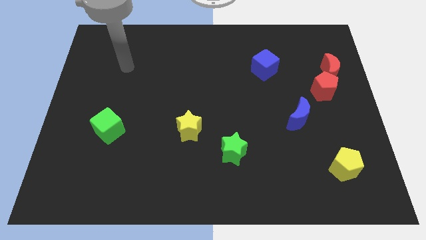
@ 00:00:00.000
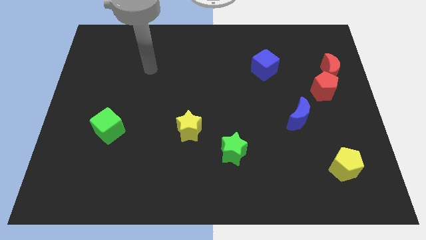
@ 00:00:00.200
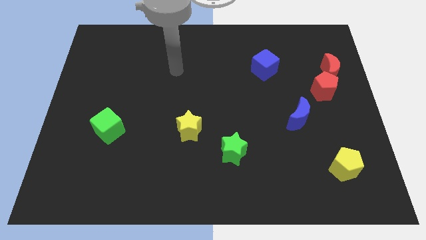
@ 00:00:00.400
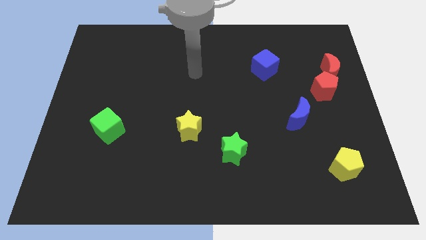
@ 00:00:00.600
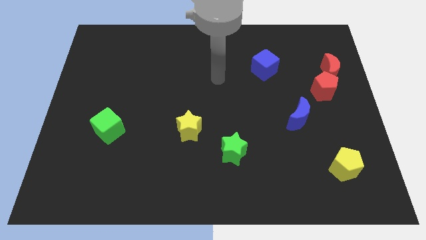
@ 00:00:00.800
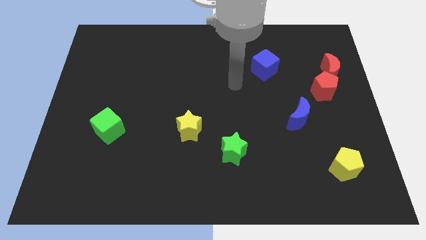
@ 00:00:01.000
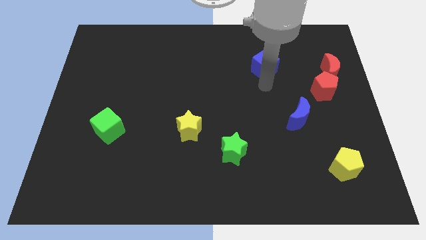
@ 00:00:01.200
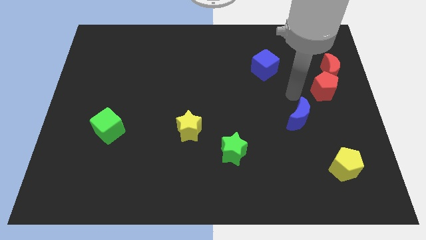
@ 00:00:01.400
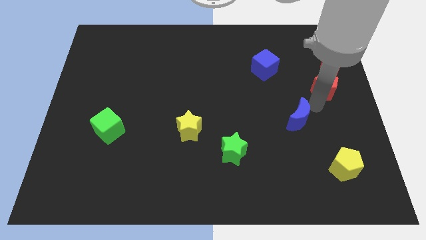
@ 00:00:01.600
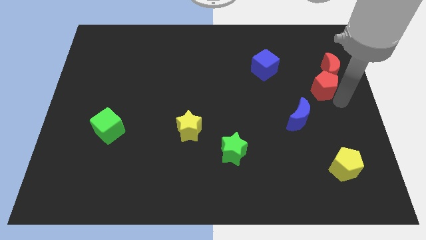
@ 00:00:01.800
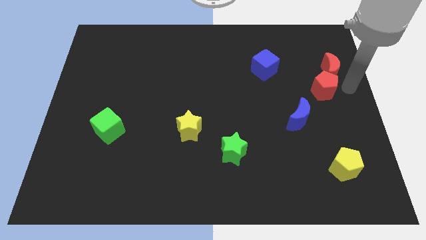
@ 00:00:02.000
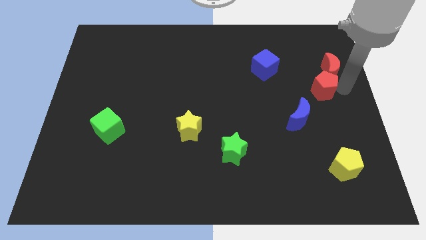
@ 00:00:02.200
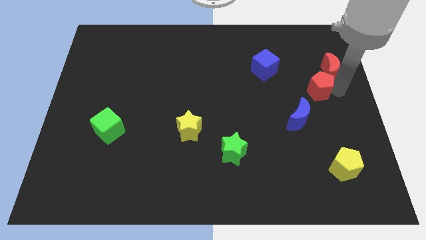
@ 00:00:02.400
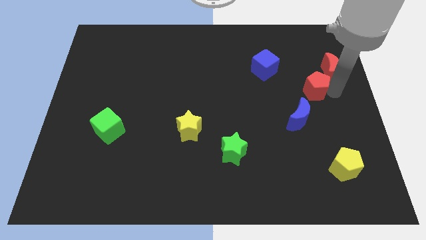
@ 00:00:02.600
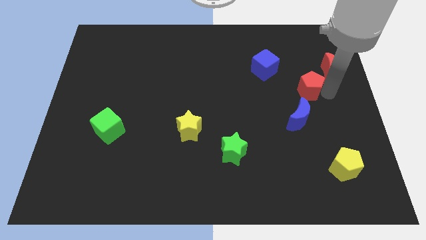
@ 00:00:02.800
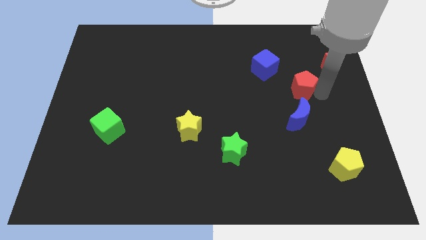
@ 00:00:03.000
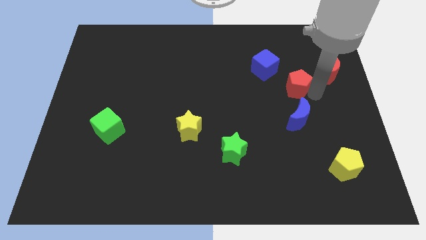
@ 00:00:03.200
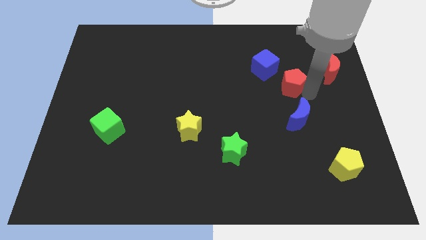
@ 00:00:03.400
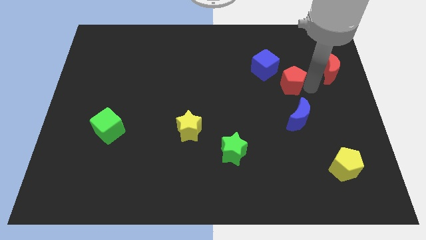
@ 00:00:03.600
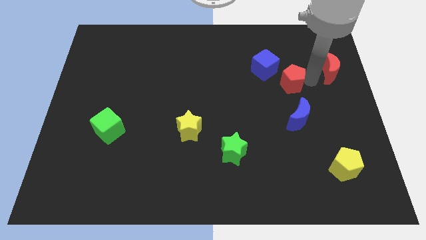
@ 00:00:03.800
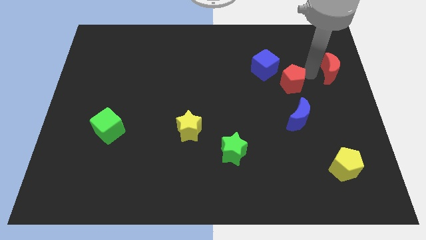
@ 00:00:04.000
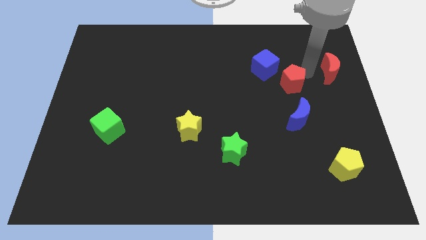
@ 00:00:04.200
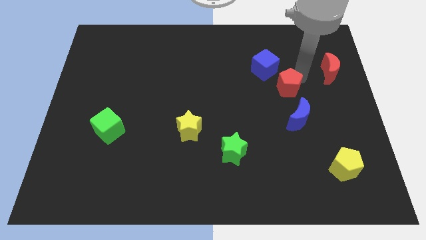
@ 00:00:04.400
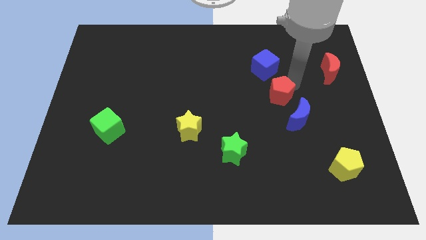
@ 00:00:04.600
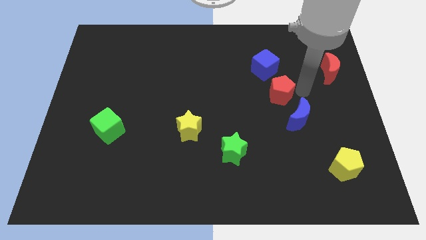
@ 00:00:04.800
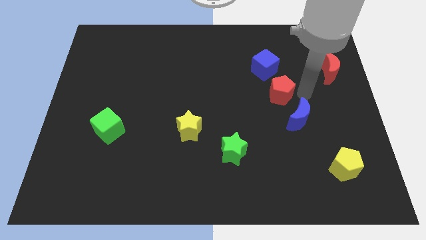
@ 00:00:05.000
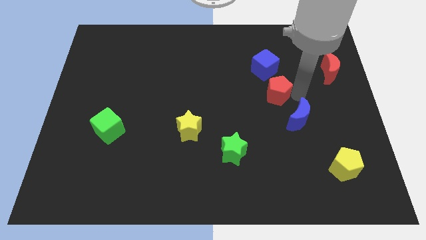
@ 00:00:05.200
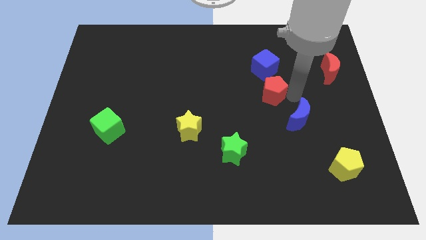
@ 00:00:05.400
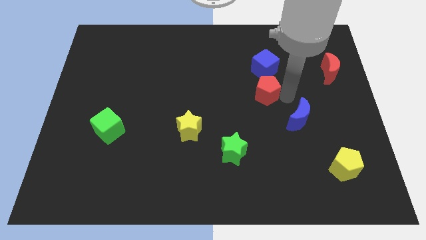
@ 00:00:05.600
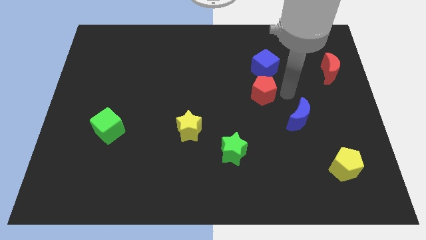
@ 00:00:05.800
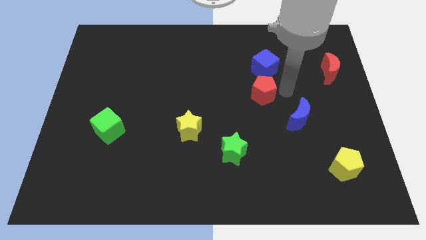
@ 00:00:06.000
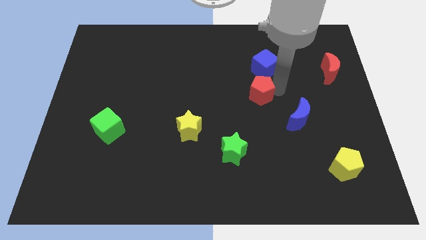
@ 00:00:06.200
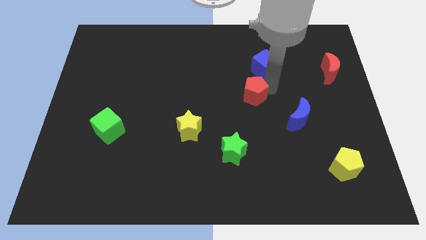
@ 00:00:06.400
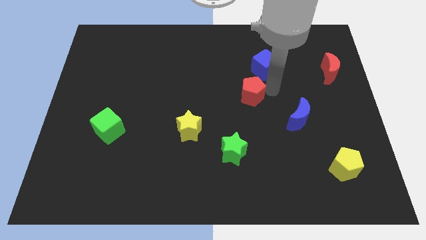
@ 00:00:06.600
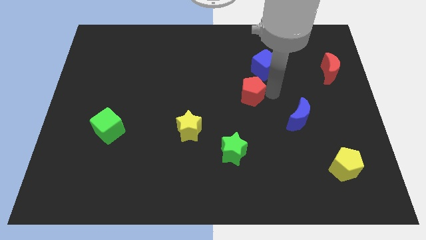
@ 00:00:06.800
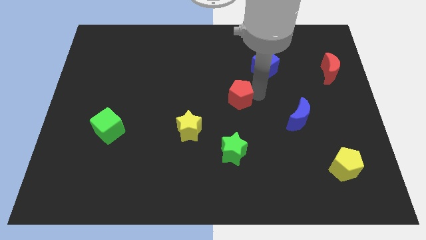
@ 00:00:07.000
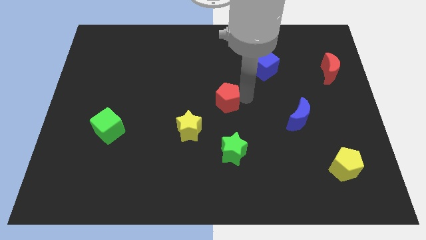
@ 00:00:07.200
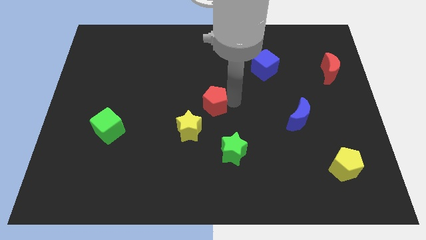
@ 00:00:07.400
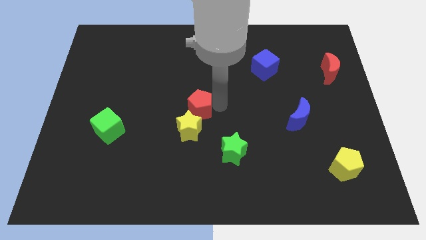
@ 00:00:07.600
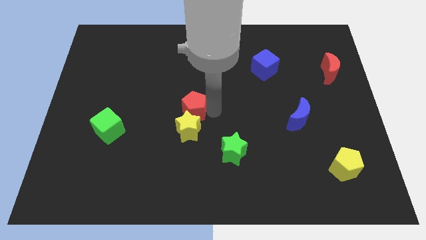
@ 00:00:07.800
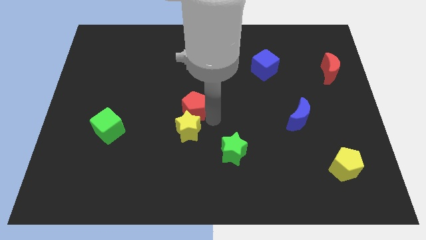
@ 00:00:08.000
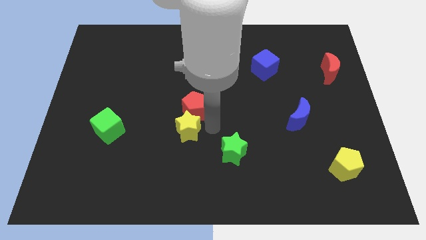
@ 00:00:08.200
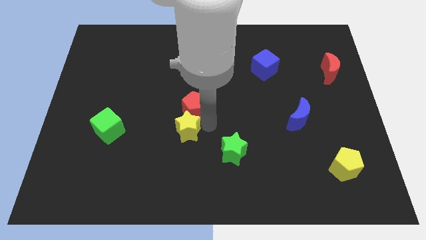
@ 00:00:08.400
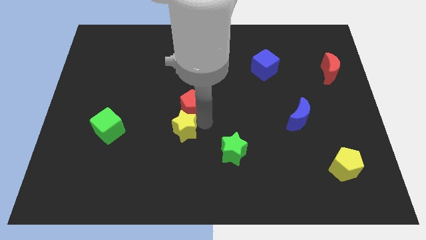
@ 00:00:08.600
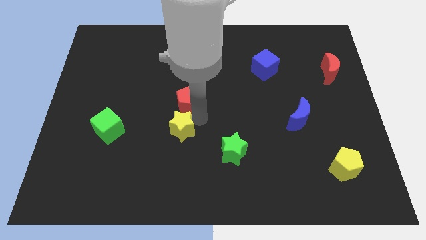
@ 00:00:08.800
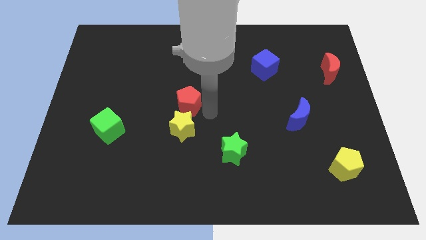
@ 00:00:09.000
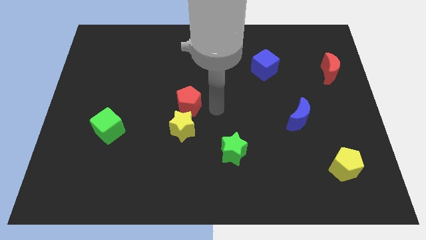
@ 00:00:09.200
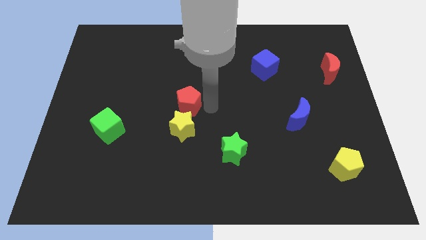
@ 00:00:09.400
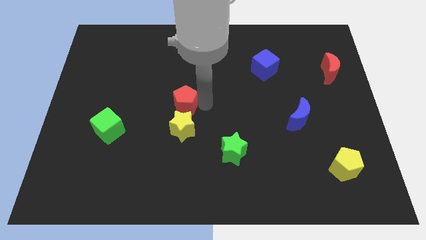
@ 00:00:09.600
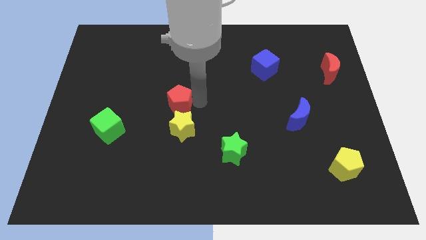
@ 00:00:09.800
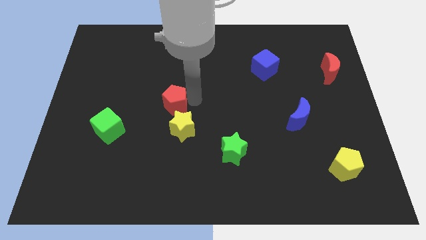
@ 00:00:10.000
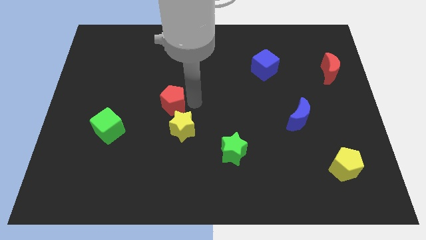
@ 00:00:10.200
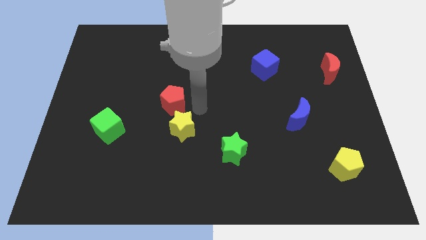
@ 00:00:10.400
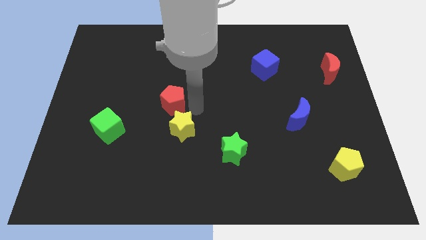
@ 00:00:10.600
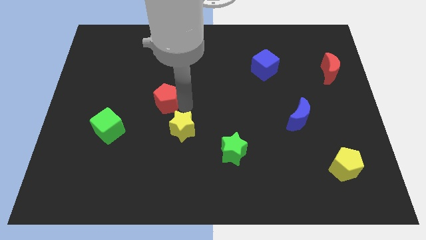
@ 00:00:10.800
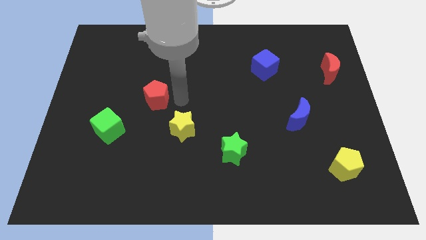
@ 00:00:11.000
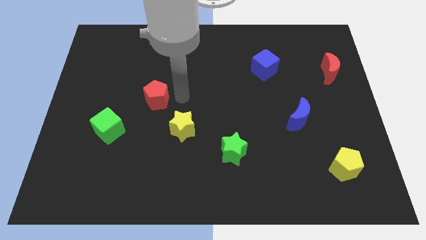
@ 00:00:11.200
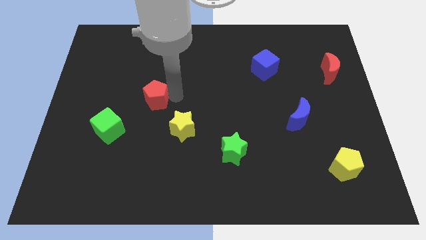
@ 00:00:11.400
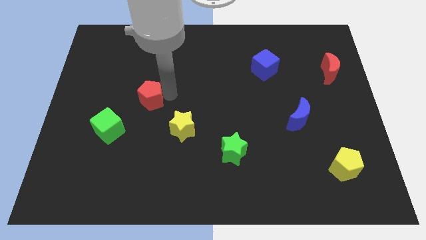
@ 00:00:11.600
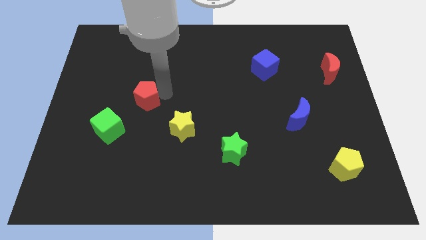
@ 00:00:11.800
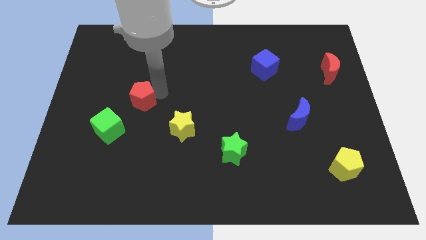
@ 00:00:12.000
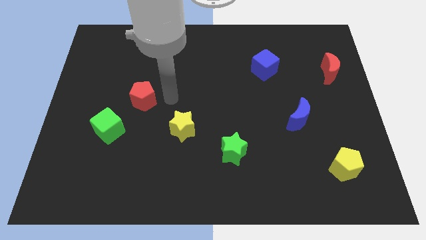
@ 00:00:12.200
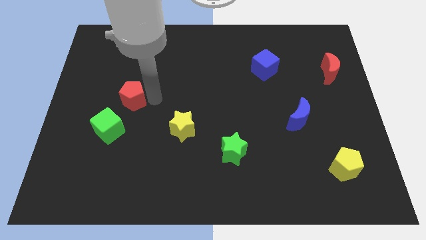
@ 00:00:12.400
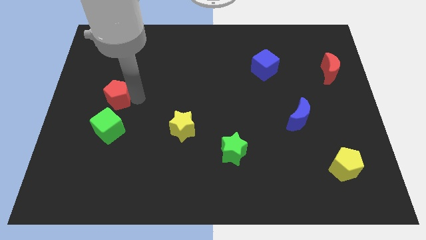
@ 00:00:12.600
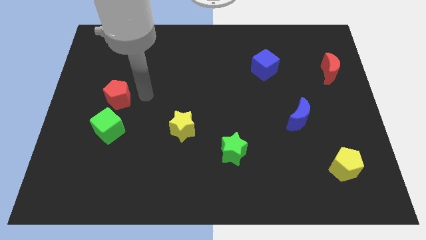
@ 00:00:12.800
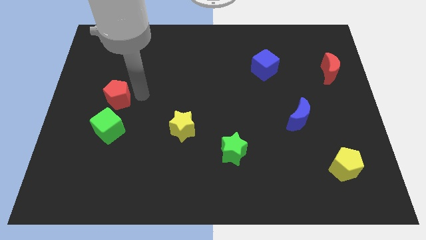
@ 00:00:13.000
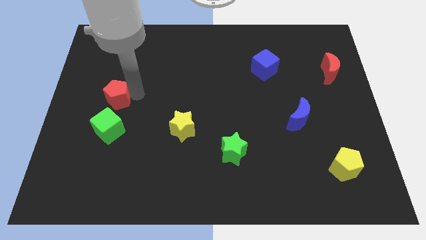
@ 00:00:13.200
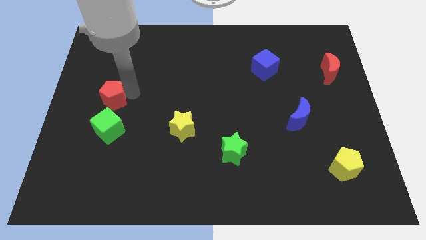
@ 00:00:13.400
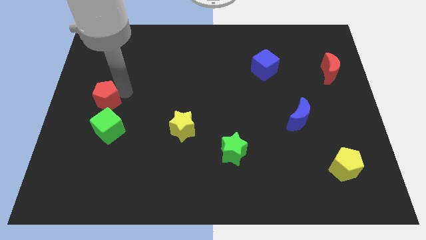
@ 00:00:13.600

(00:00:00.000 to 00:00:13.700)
push the red pentagon to the center left
